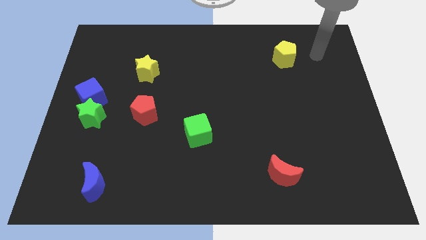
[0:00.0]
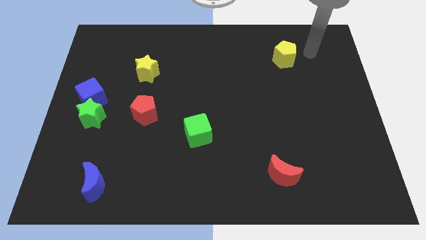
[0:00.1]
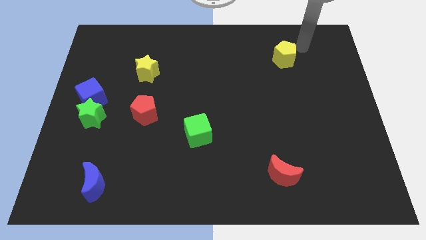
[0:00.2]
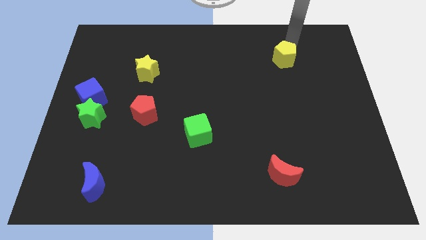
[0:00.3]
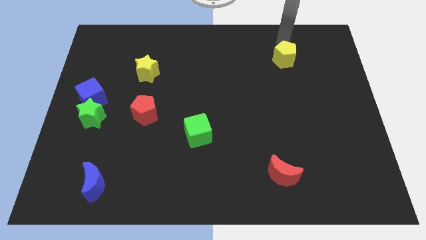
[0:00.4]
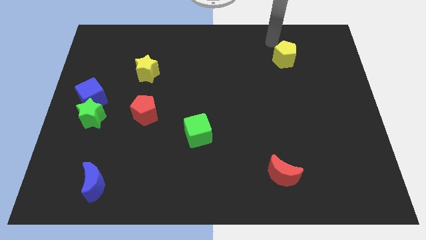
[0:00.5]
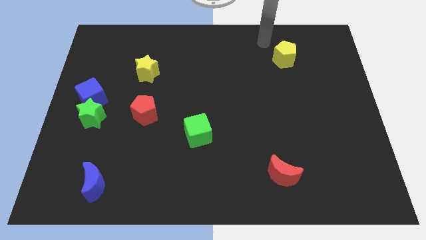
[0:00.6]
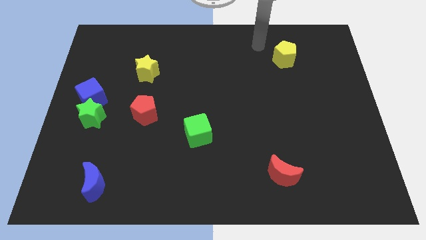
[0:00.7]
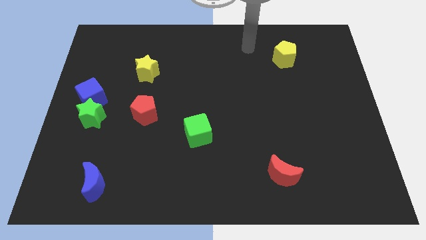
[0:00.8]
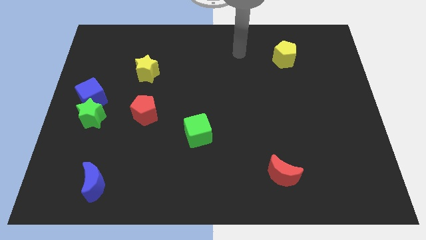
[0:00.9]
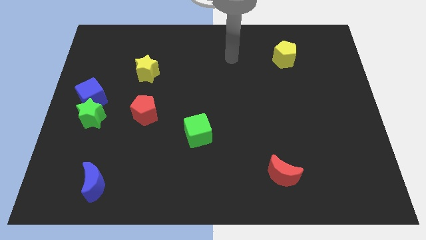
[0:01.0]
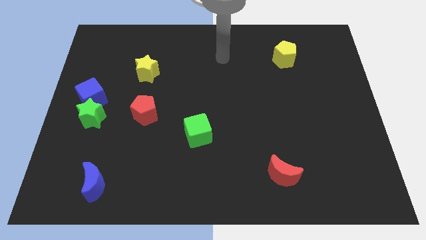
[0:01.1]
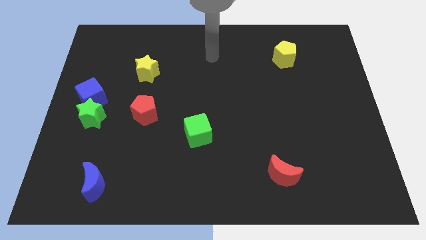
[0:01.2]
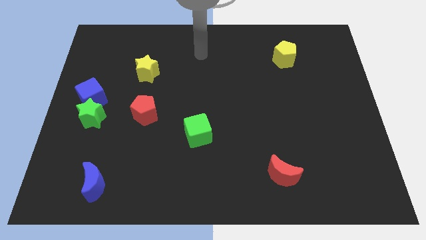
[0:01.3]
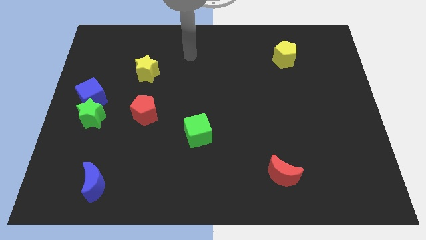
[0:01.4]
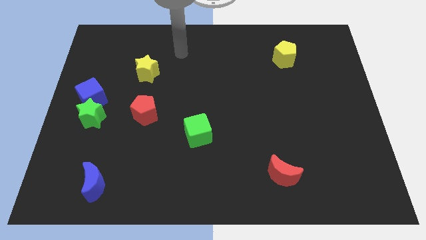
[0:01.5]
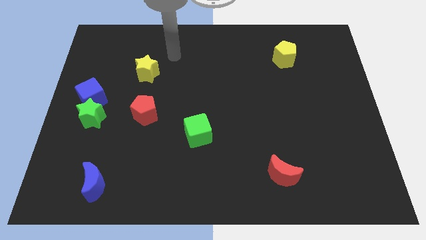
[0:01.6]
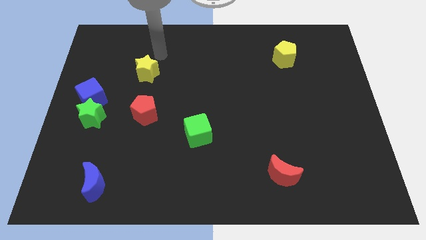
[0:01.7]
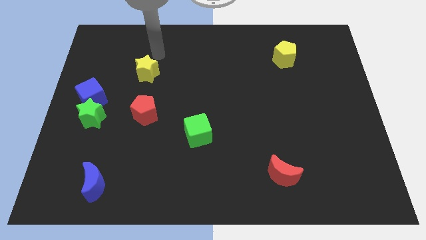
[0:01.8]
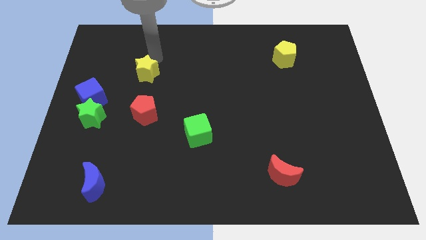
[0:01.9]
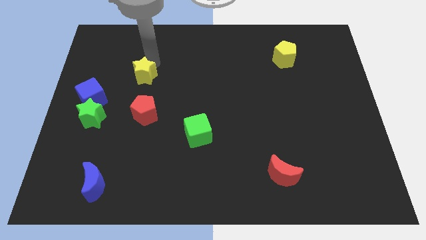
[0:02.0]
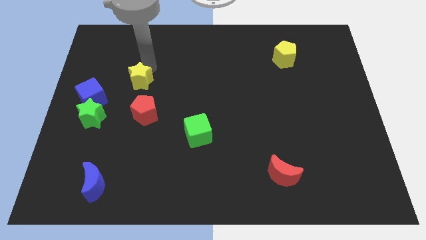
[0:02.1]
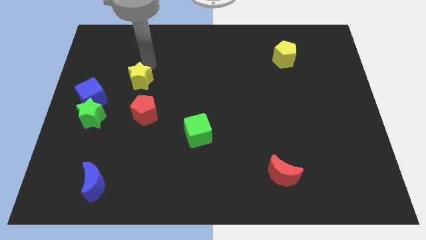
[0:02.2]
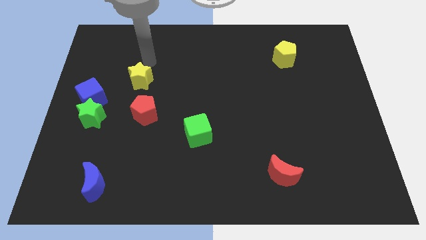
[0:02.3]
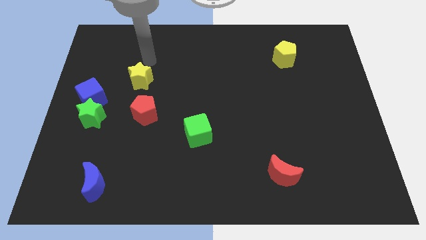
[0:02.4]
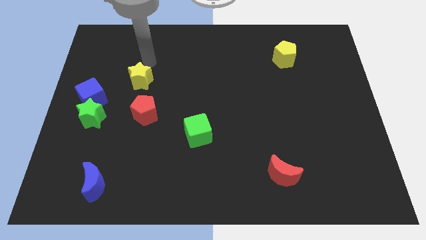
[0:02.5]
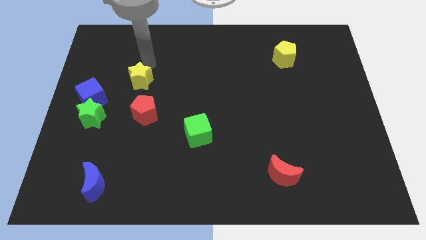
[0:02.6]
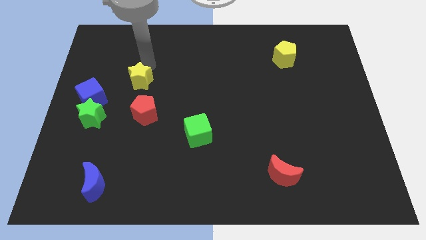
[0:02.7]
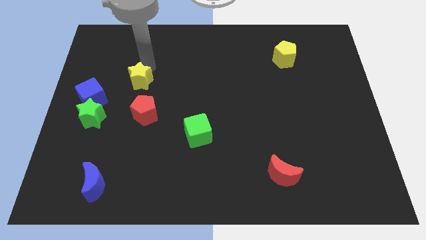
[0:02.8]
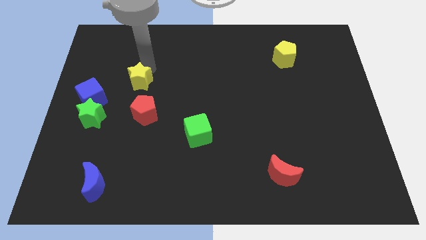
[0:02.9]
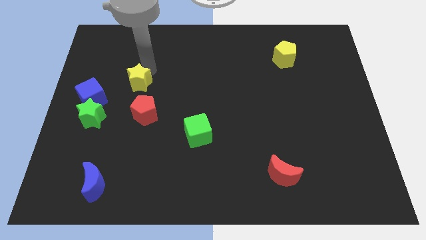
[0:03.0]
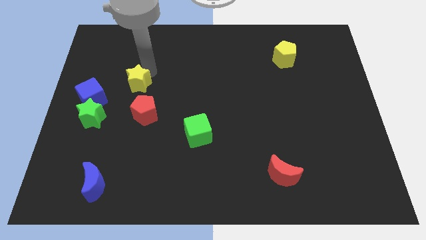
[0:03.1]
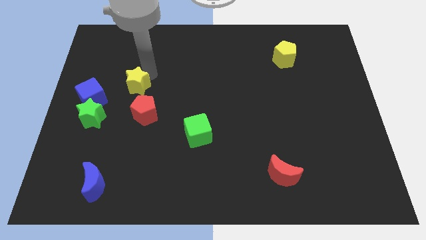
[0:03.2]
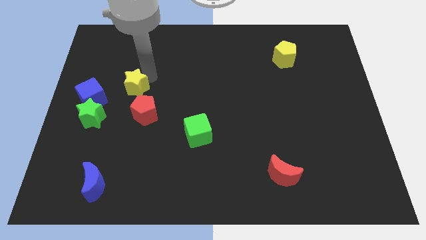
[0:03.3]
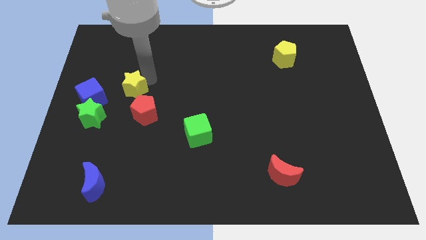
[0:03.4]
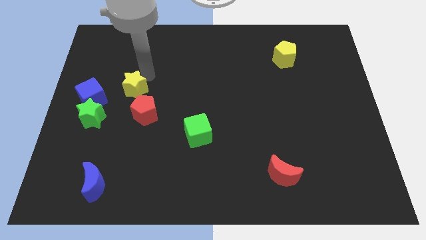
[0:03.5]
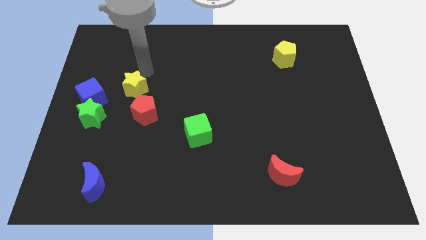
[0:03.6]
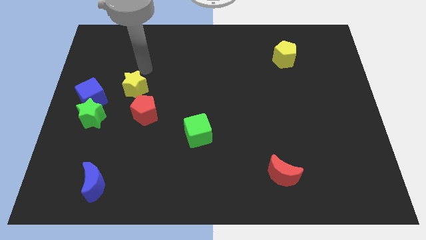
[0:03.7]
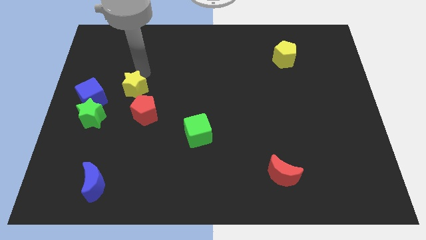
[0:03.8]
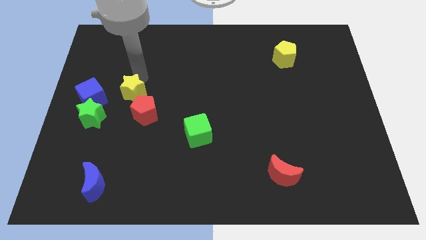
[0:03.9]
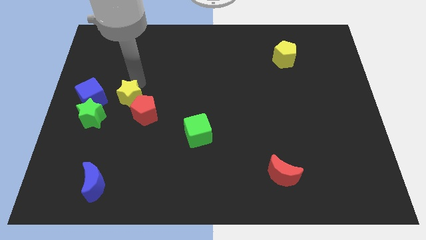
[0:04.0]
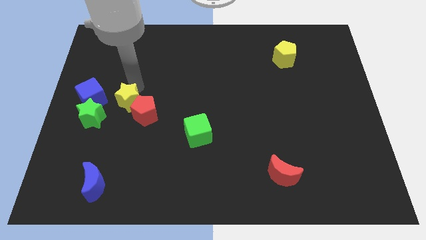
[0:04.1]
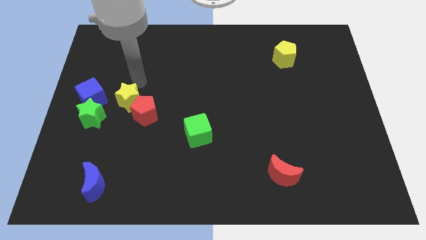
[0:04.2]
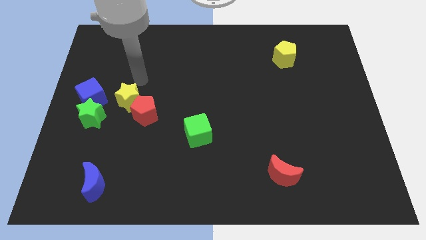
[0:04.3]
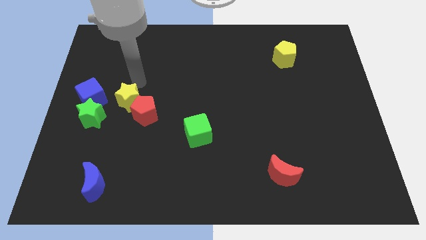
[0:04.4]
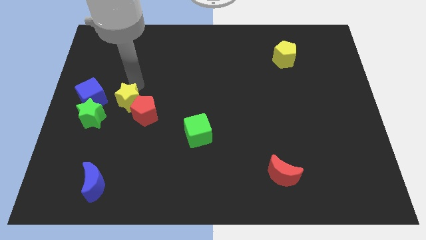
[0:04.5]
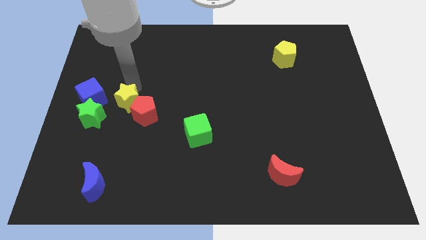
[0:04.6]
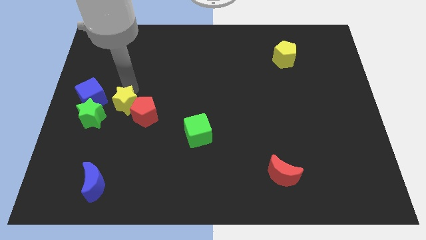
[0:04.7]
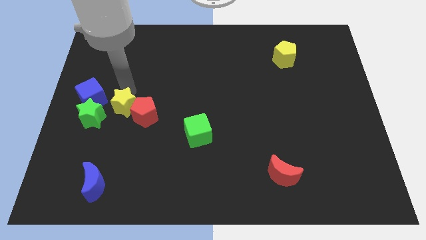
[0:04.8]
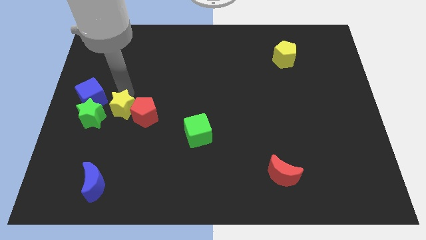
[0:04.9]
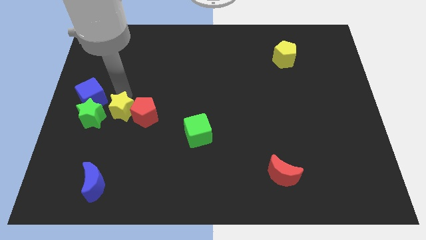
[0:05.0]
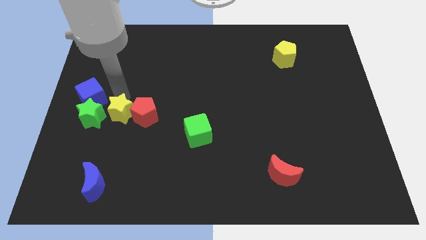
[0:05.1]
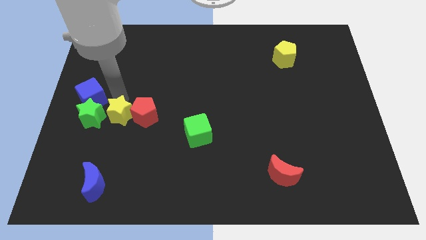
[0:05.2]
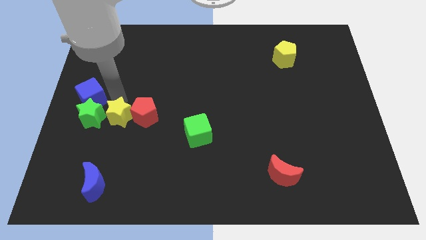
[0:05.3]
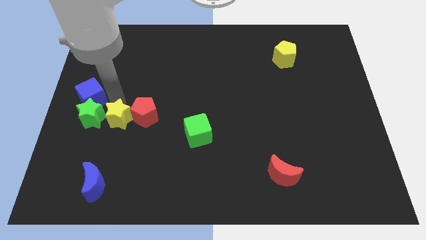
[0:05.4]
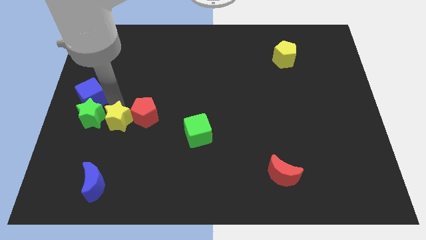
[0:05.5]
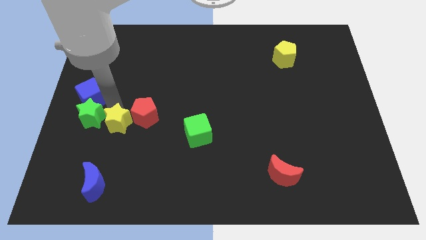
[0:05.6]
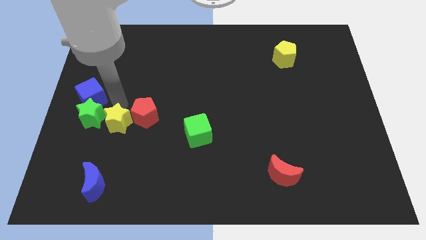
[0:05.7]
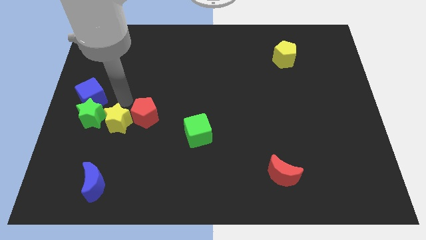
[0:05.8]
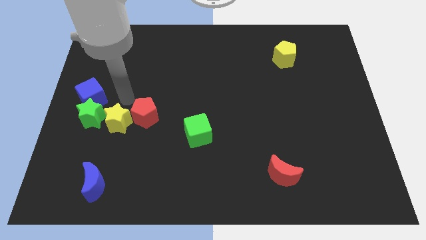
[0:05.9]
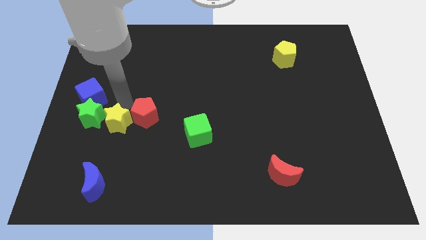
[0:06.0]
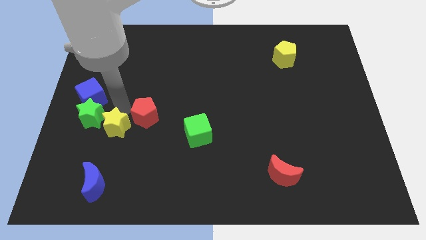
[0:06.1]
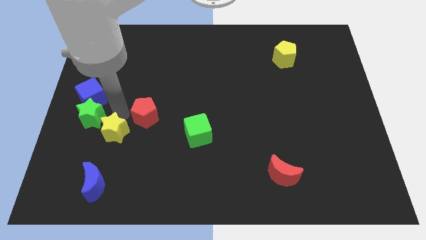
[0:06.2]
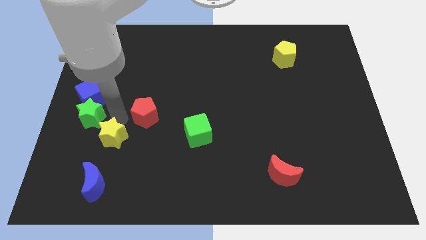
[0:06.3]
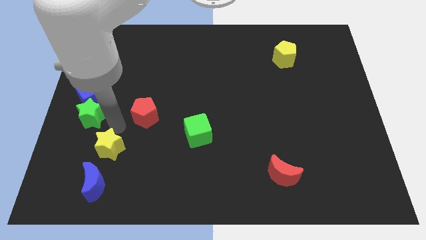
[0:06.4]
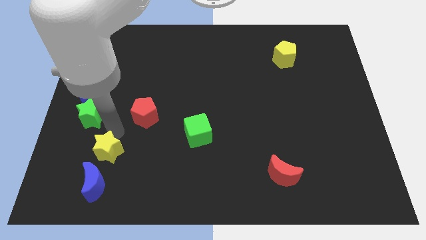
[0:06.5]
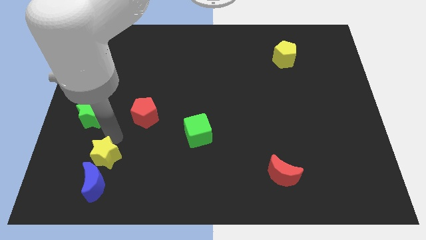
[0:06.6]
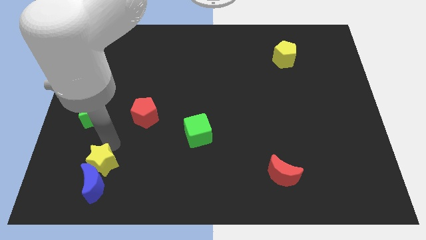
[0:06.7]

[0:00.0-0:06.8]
push the yellow star next to the blue moon

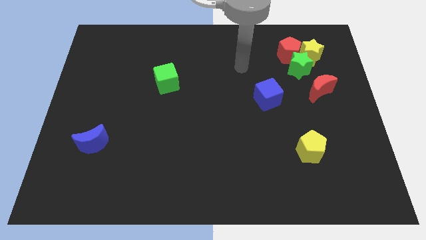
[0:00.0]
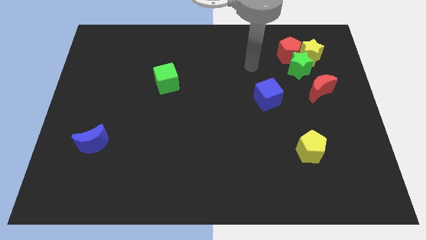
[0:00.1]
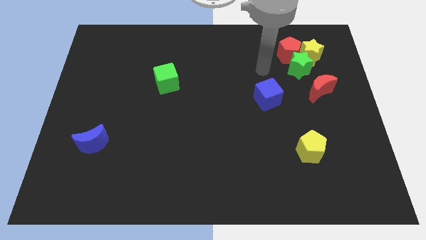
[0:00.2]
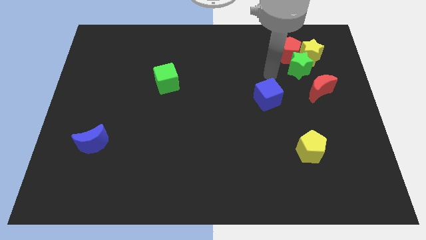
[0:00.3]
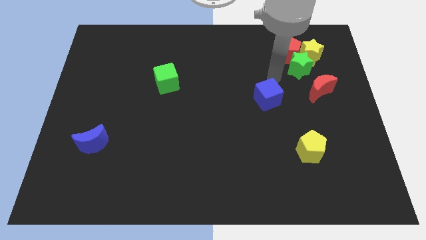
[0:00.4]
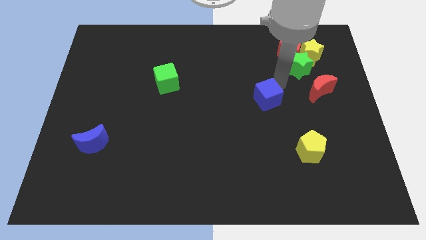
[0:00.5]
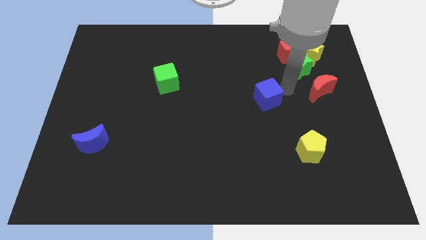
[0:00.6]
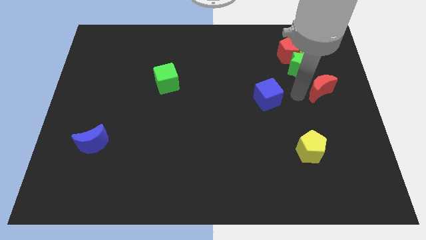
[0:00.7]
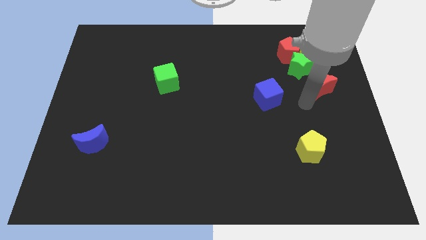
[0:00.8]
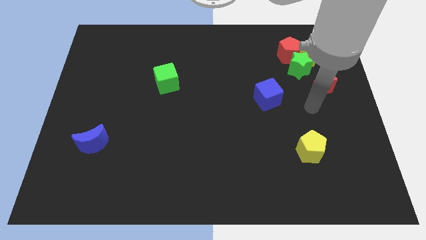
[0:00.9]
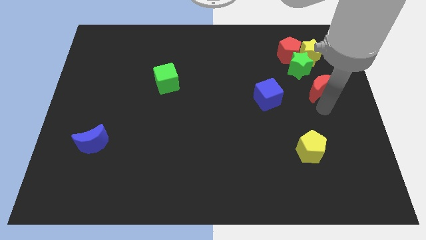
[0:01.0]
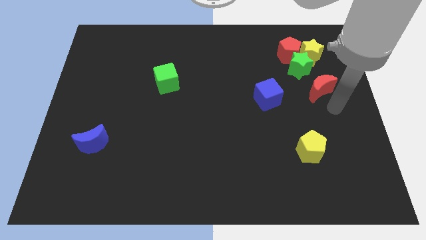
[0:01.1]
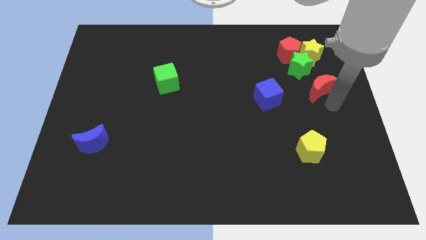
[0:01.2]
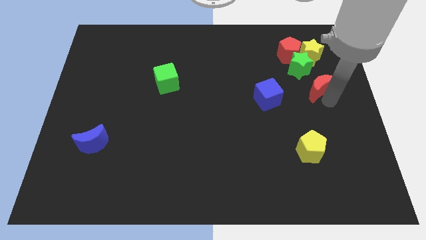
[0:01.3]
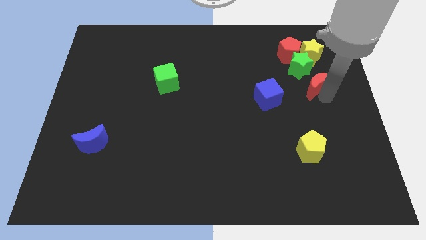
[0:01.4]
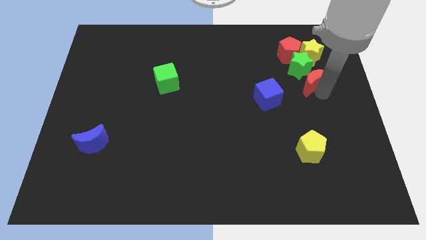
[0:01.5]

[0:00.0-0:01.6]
move the red moon to the green star
